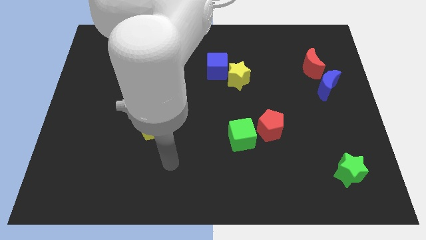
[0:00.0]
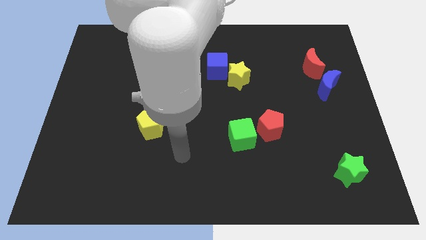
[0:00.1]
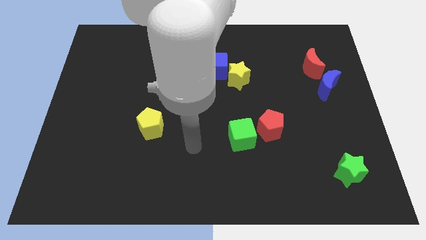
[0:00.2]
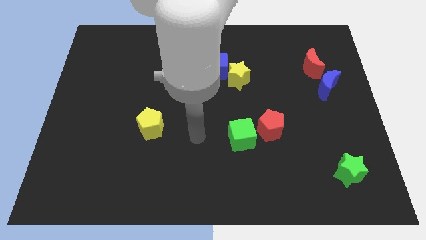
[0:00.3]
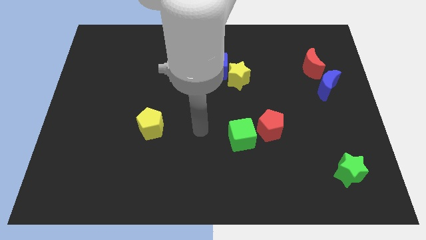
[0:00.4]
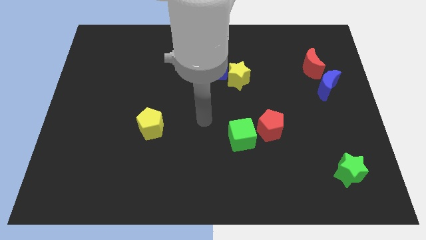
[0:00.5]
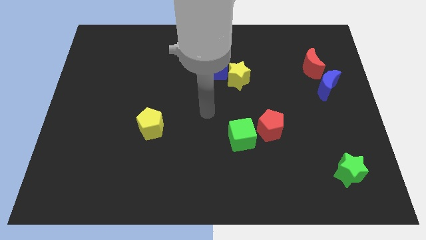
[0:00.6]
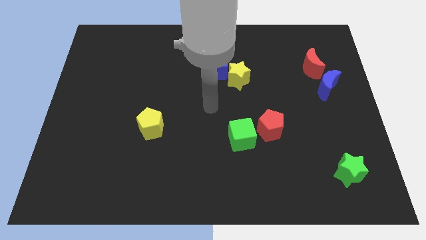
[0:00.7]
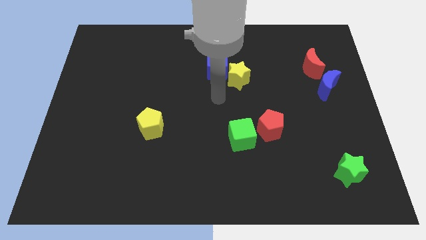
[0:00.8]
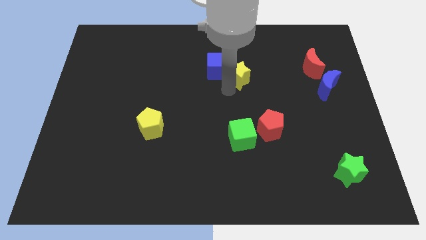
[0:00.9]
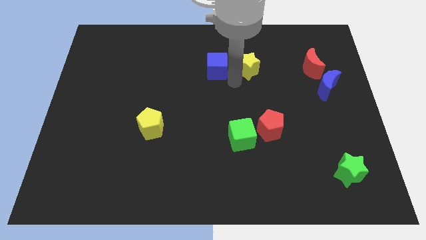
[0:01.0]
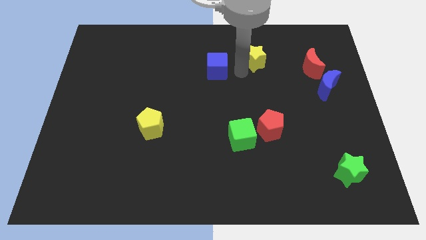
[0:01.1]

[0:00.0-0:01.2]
pull the blue cube apart from the yellow star

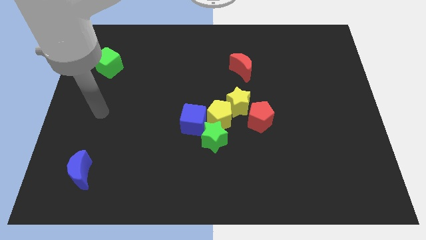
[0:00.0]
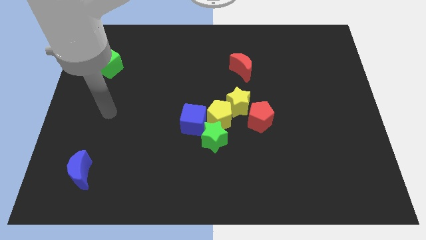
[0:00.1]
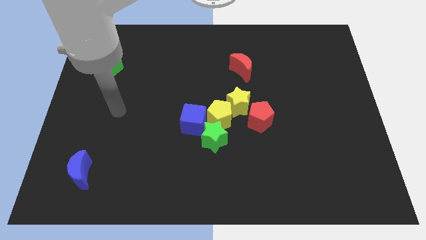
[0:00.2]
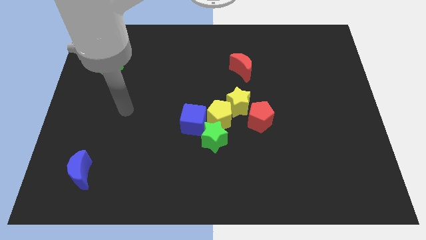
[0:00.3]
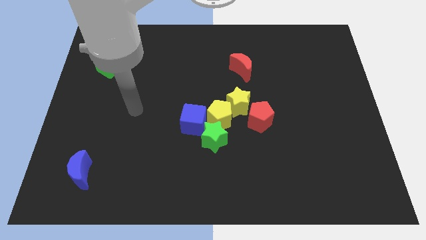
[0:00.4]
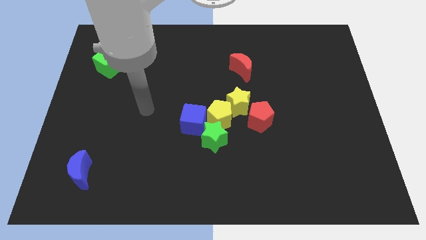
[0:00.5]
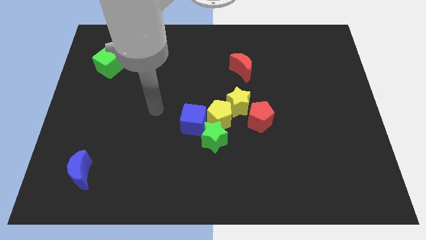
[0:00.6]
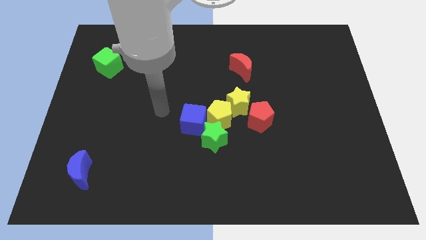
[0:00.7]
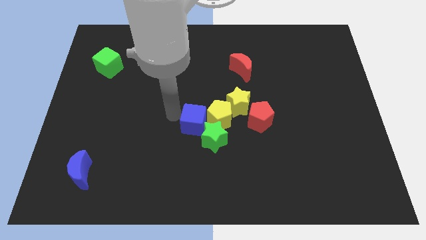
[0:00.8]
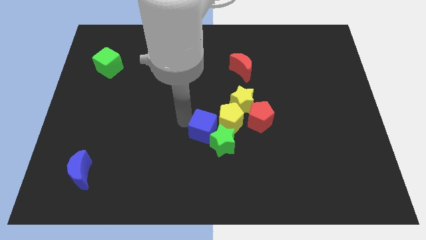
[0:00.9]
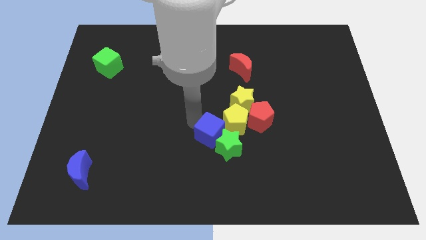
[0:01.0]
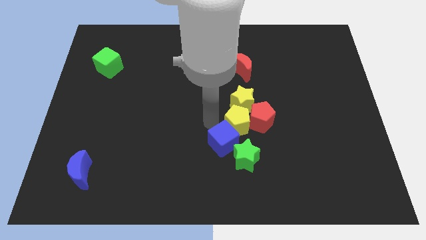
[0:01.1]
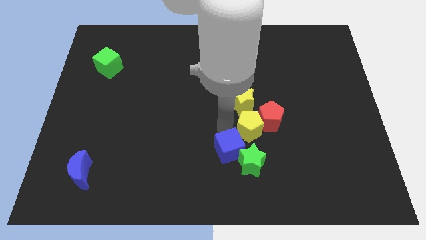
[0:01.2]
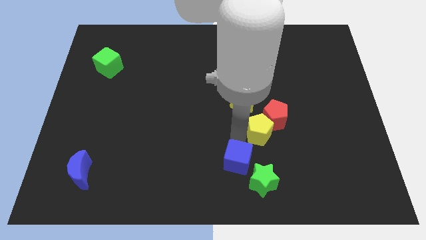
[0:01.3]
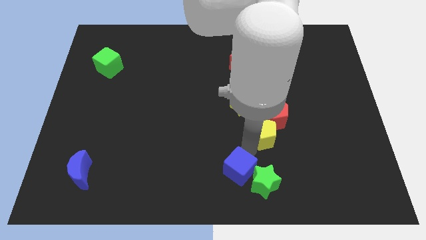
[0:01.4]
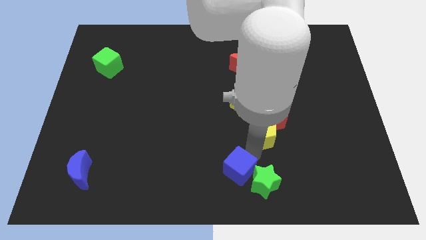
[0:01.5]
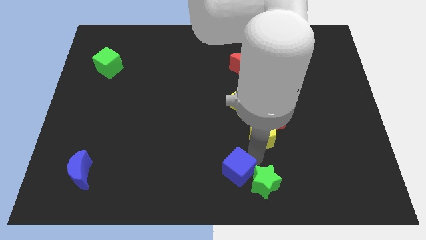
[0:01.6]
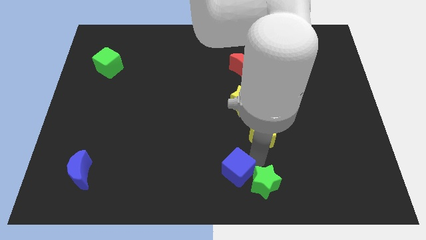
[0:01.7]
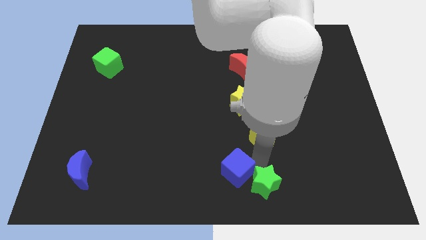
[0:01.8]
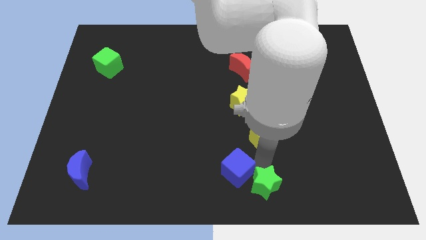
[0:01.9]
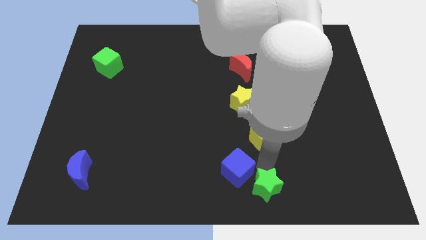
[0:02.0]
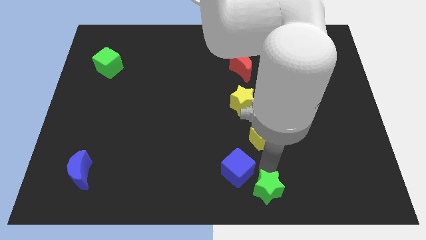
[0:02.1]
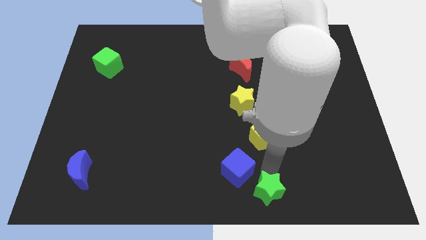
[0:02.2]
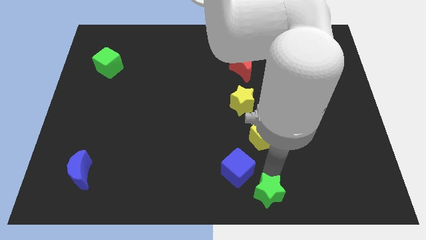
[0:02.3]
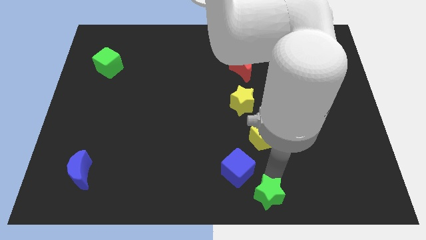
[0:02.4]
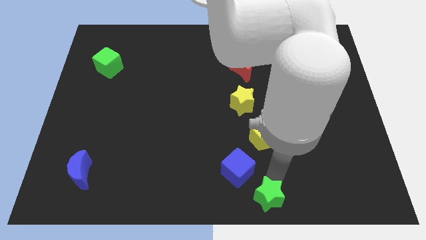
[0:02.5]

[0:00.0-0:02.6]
move the green star away from the yellow pentagon and blue cube

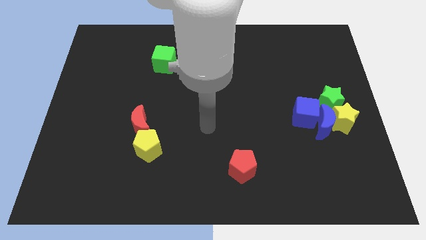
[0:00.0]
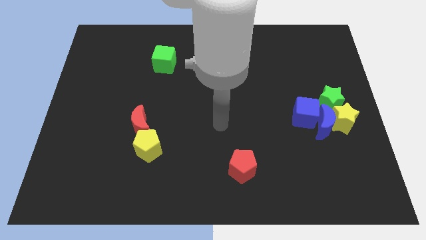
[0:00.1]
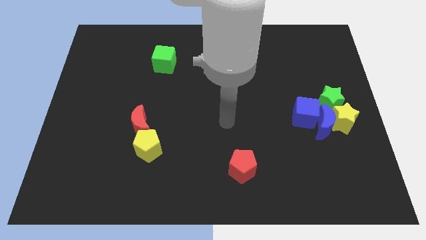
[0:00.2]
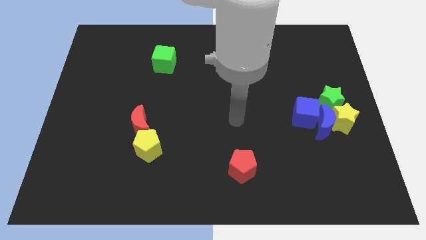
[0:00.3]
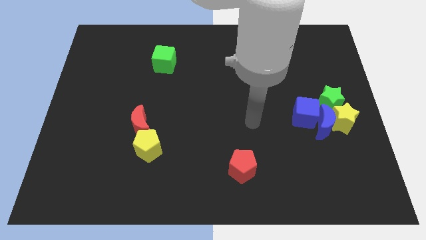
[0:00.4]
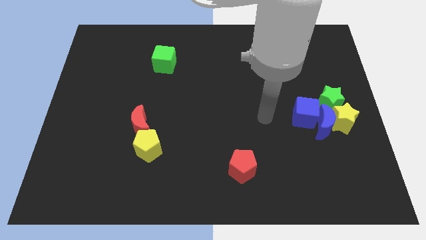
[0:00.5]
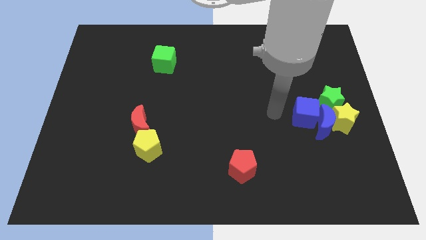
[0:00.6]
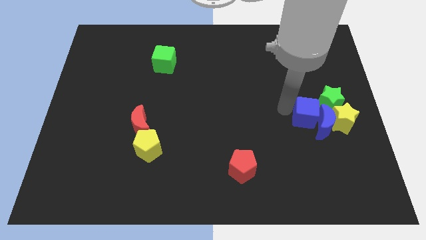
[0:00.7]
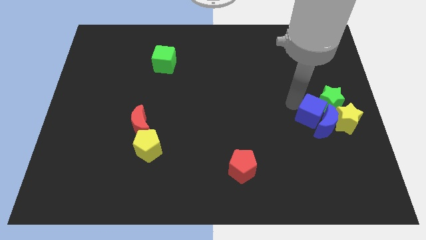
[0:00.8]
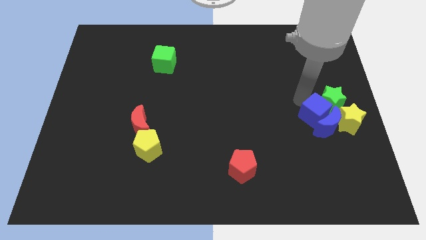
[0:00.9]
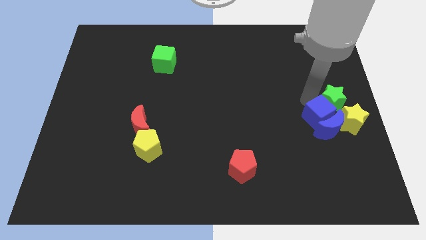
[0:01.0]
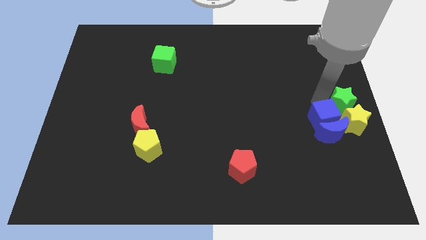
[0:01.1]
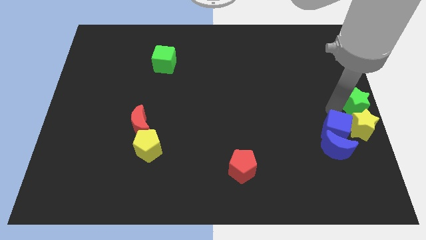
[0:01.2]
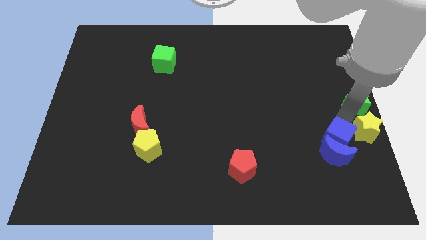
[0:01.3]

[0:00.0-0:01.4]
move the blue moon away from the group

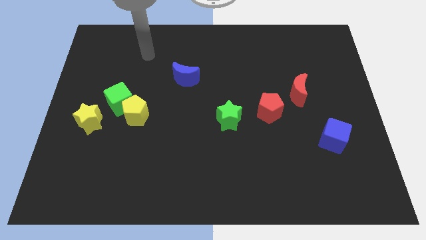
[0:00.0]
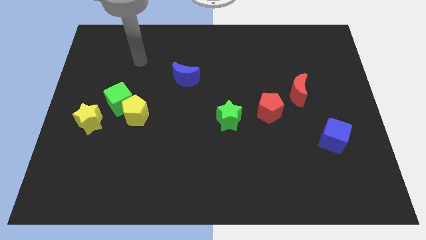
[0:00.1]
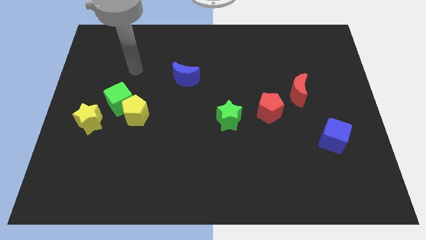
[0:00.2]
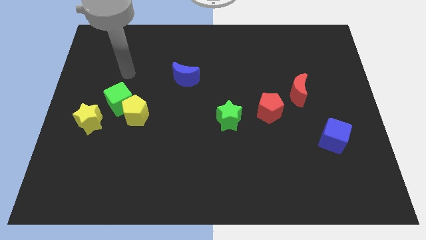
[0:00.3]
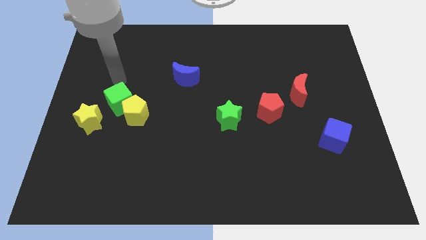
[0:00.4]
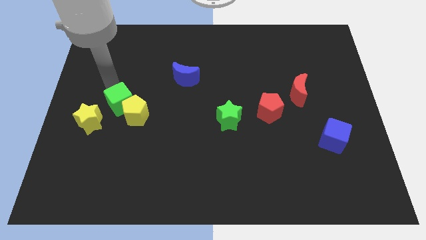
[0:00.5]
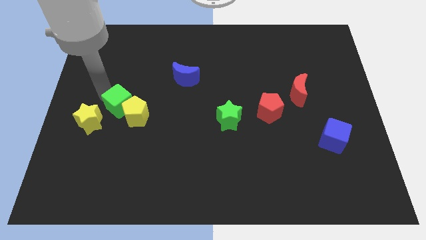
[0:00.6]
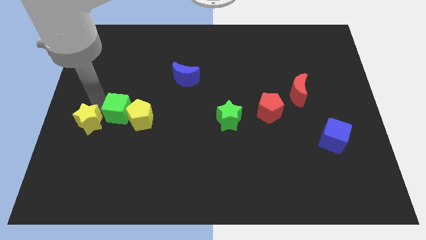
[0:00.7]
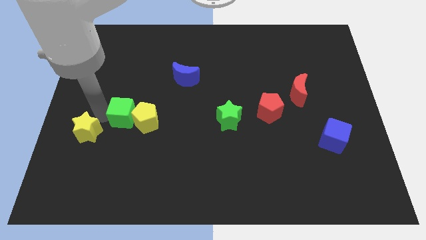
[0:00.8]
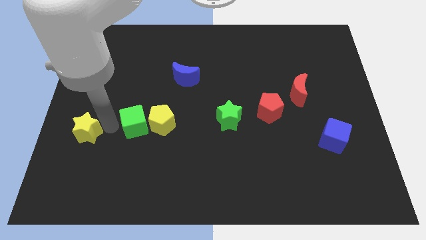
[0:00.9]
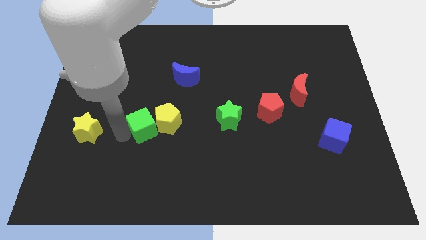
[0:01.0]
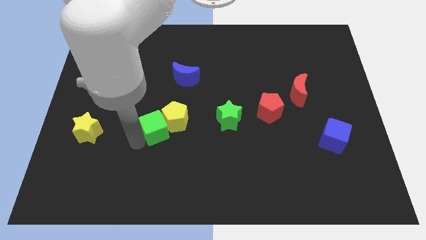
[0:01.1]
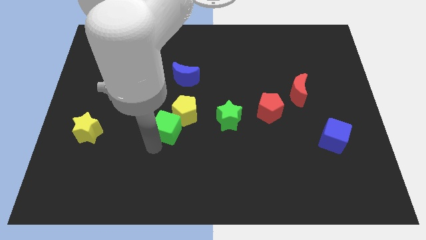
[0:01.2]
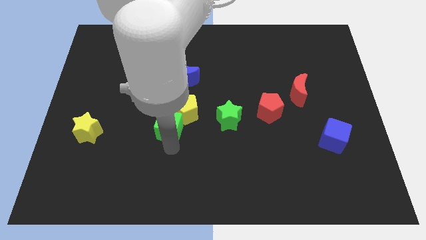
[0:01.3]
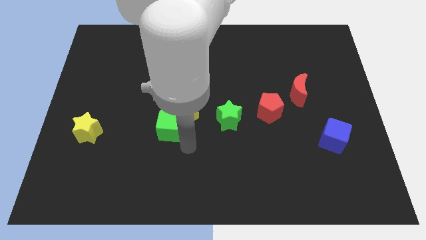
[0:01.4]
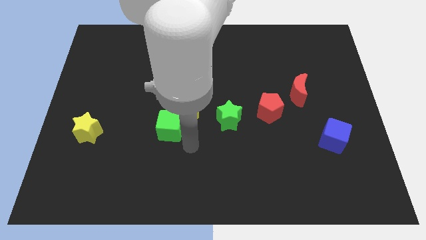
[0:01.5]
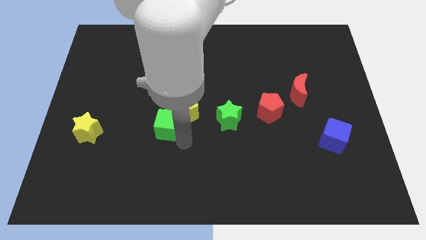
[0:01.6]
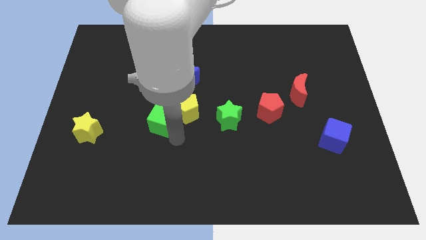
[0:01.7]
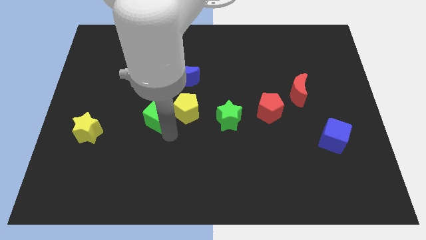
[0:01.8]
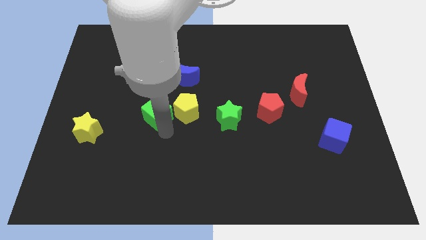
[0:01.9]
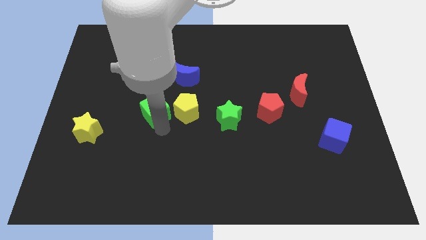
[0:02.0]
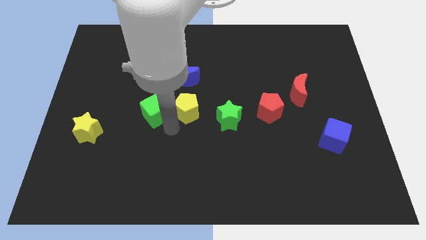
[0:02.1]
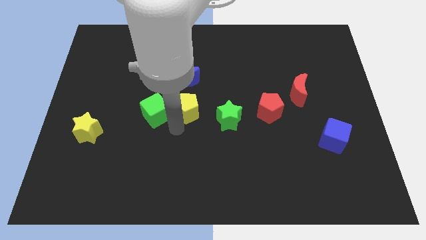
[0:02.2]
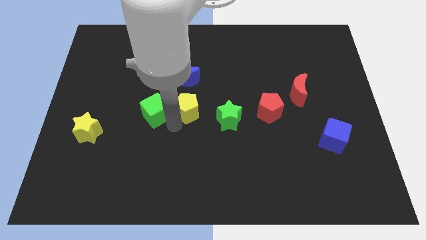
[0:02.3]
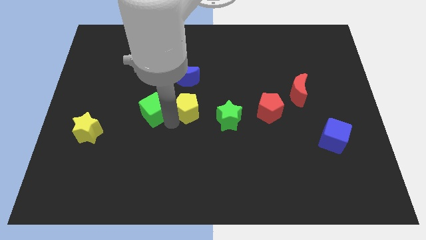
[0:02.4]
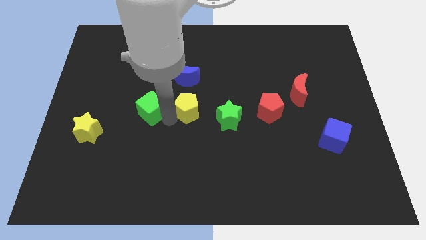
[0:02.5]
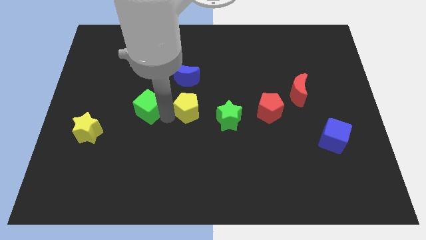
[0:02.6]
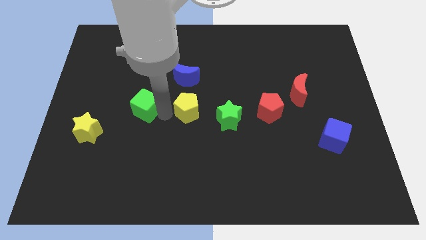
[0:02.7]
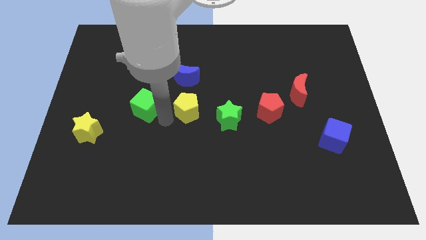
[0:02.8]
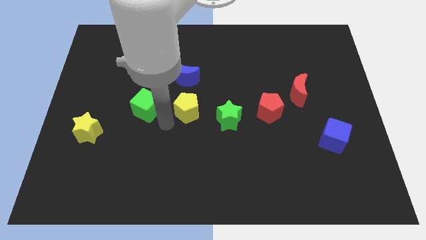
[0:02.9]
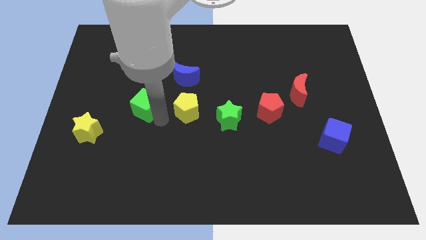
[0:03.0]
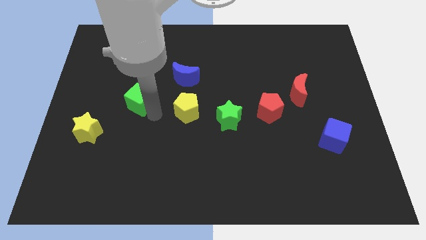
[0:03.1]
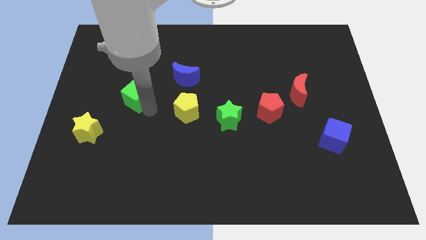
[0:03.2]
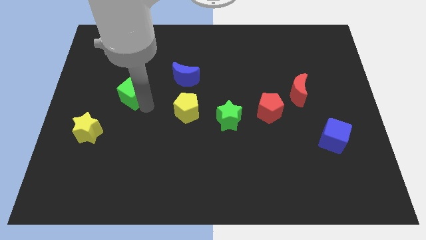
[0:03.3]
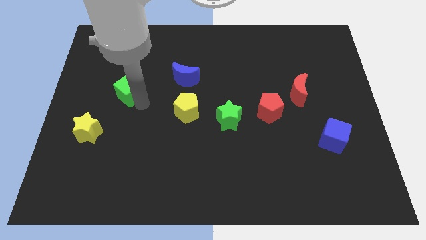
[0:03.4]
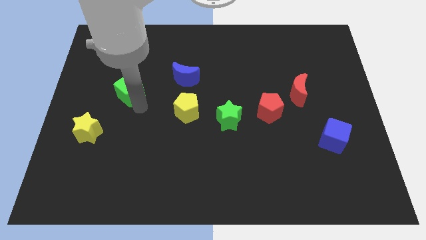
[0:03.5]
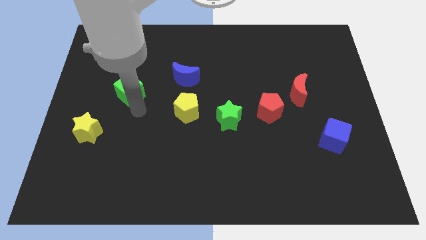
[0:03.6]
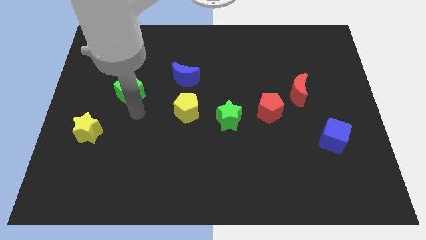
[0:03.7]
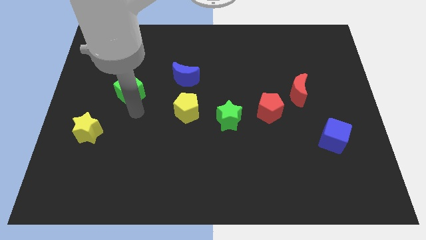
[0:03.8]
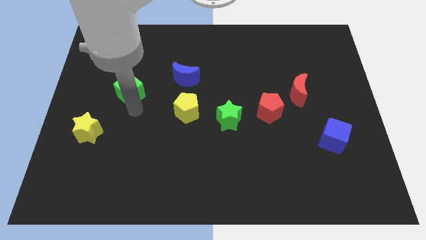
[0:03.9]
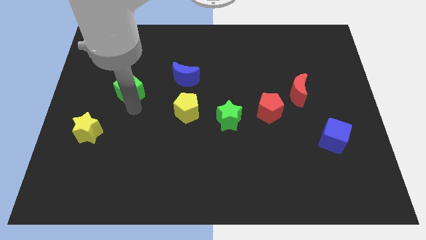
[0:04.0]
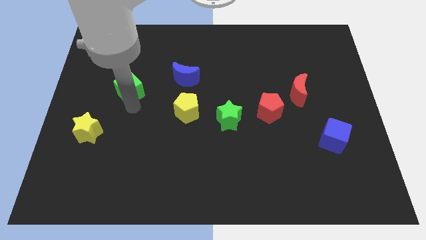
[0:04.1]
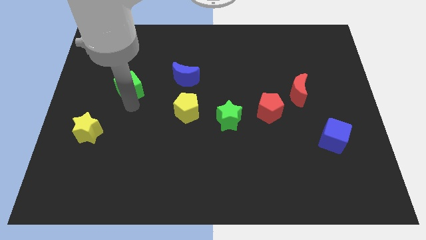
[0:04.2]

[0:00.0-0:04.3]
separate the green cube from the yellow pentagon and yellow star
